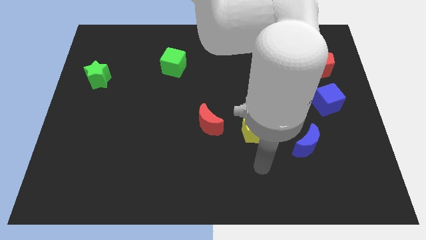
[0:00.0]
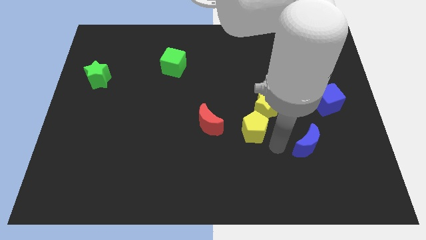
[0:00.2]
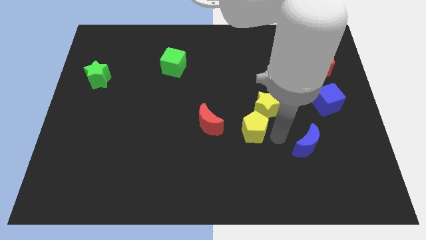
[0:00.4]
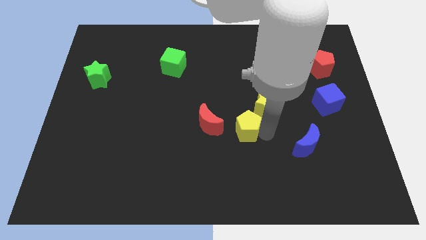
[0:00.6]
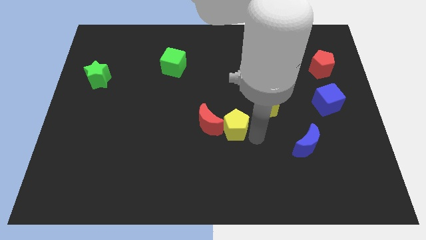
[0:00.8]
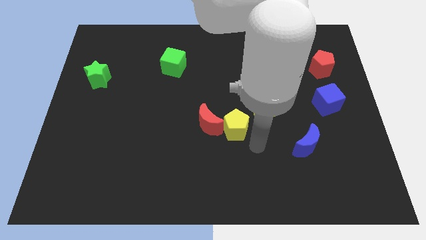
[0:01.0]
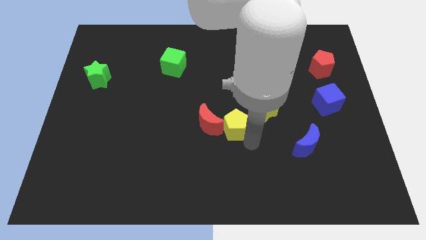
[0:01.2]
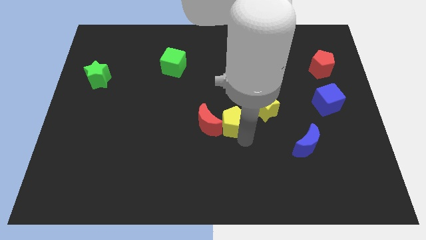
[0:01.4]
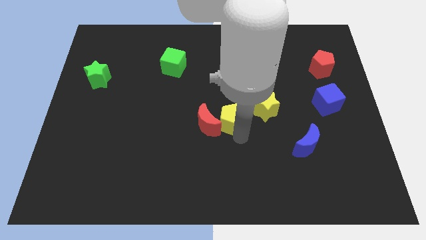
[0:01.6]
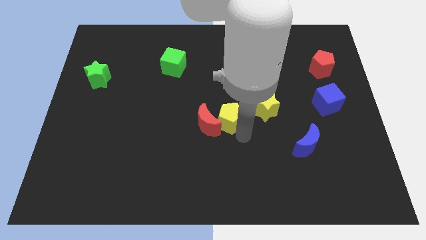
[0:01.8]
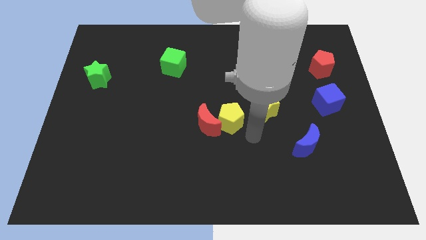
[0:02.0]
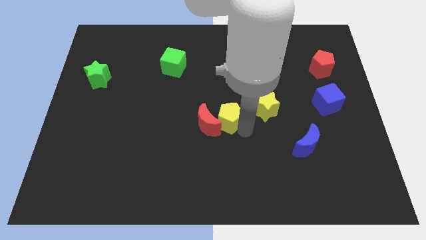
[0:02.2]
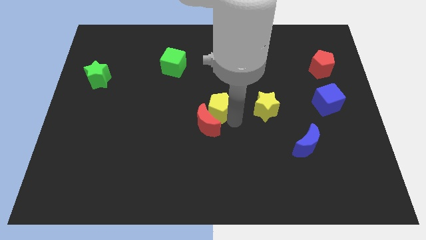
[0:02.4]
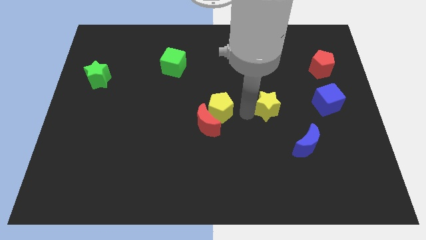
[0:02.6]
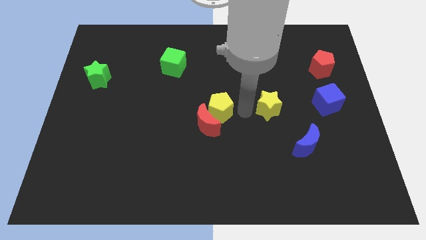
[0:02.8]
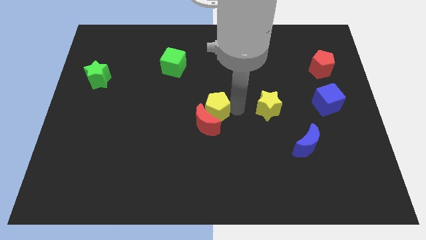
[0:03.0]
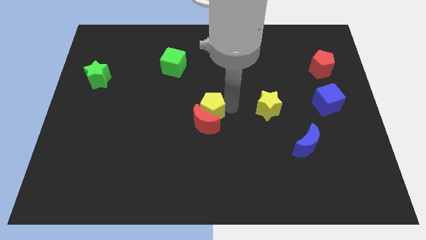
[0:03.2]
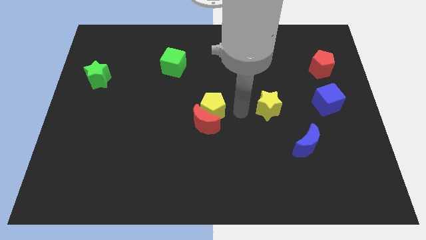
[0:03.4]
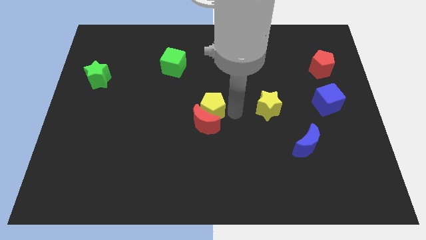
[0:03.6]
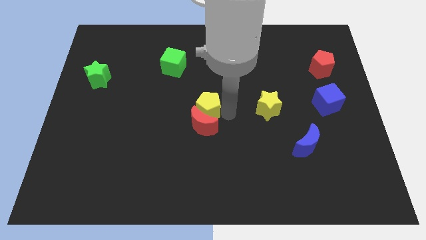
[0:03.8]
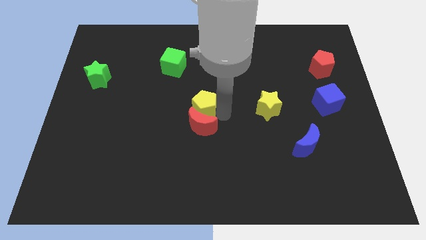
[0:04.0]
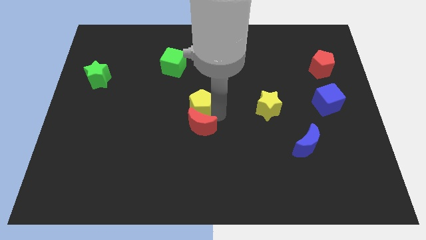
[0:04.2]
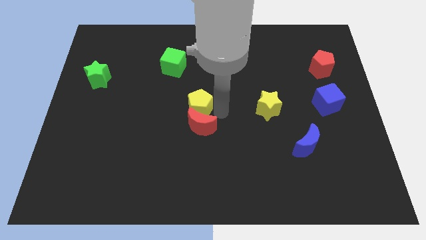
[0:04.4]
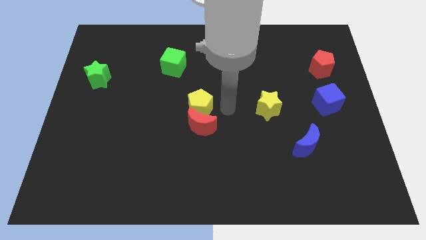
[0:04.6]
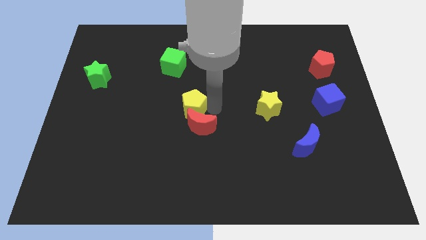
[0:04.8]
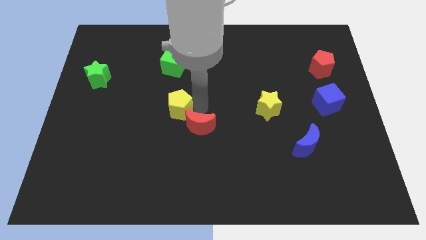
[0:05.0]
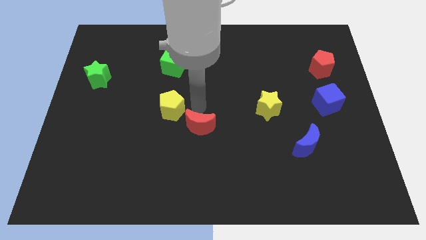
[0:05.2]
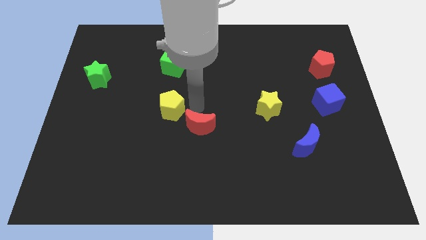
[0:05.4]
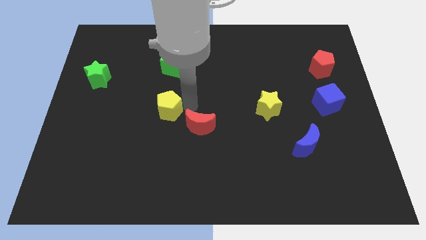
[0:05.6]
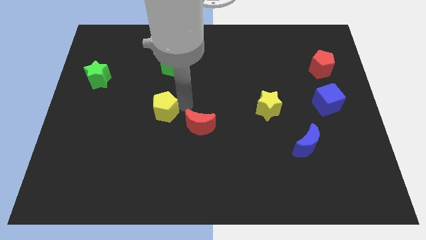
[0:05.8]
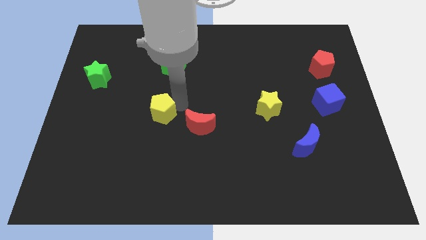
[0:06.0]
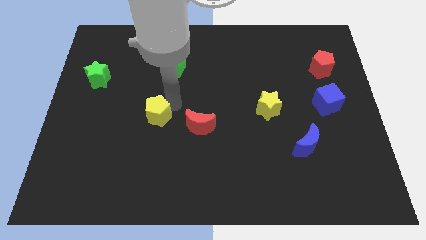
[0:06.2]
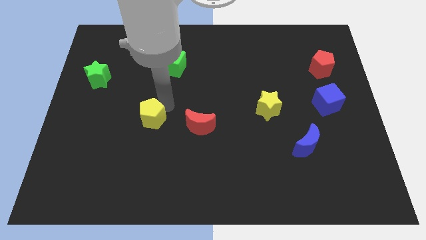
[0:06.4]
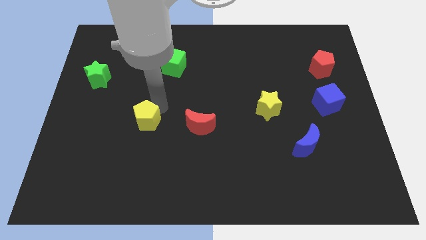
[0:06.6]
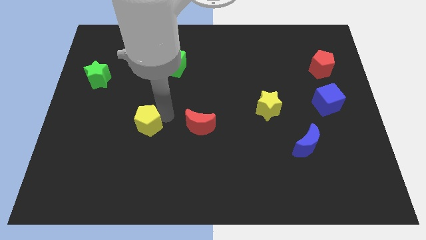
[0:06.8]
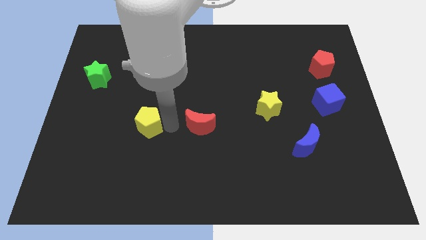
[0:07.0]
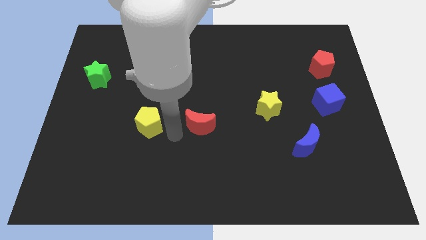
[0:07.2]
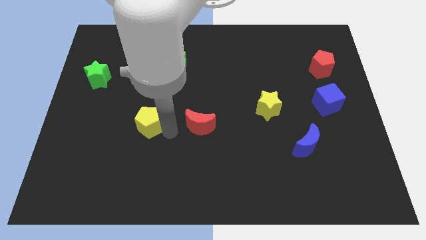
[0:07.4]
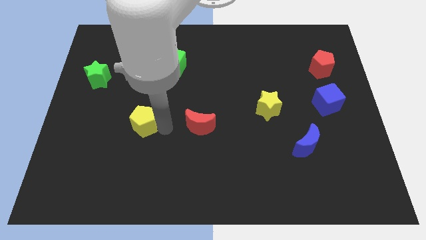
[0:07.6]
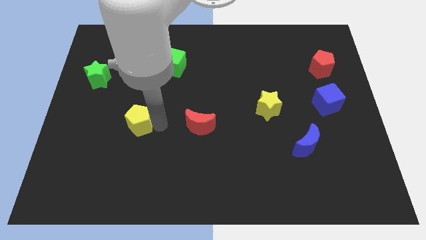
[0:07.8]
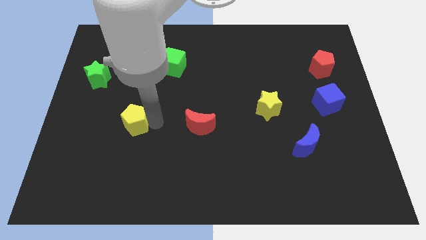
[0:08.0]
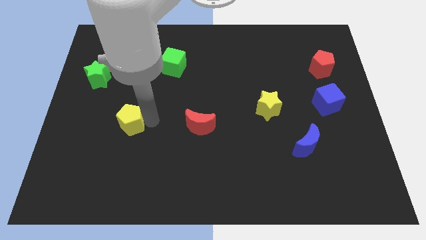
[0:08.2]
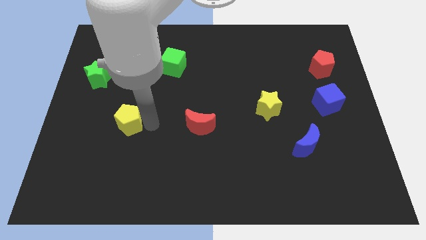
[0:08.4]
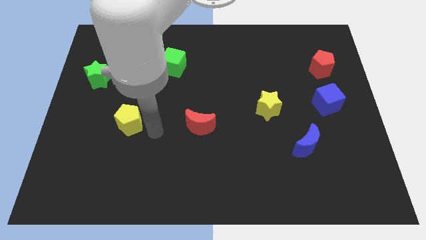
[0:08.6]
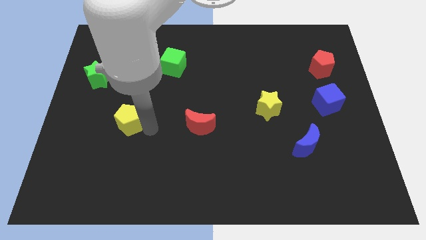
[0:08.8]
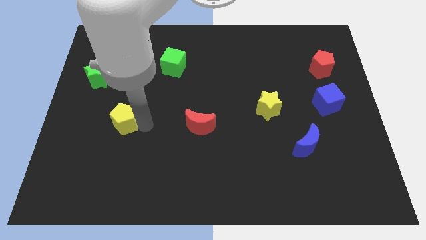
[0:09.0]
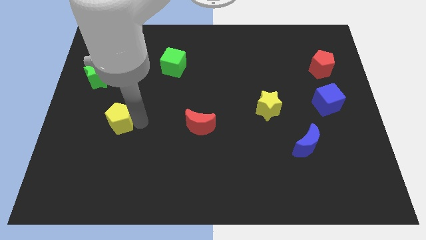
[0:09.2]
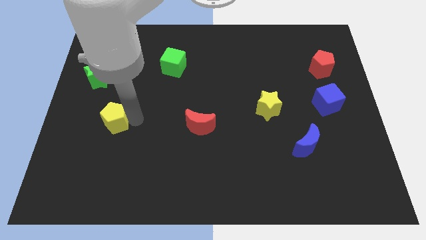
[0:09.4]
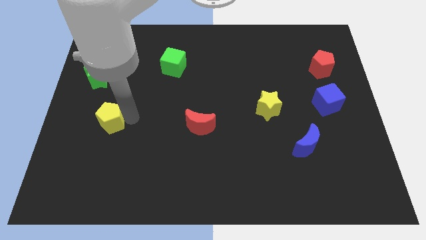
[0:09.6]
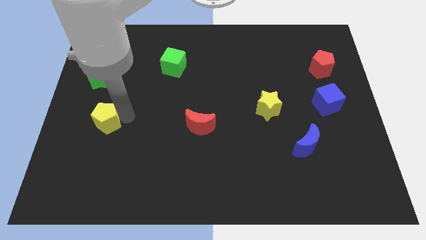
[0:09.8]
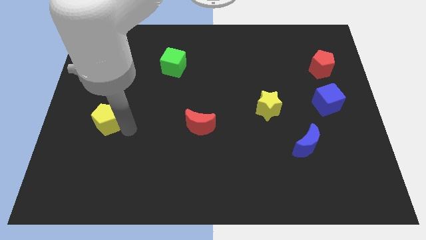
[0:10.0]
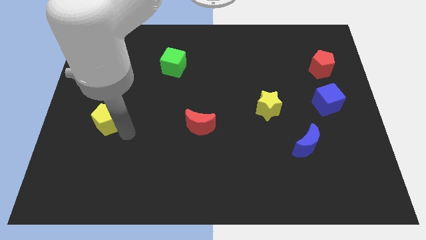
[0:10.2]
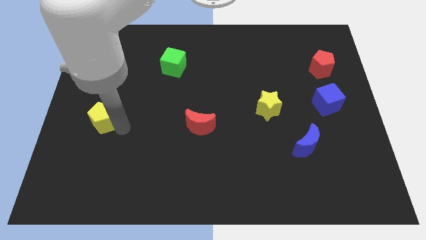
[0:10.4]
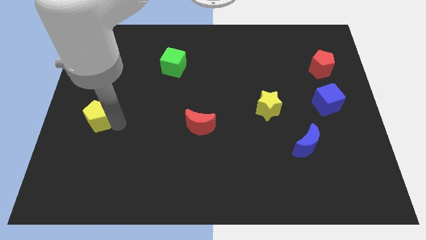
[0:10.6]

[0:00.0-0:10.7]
push the yellow pentagon to the center left

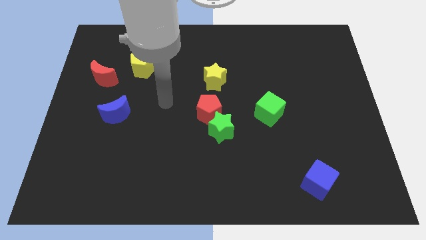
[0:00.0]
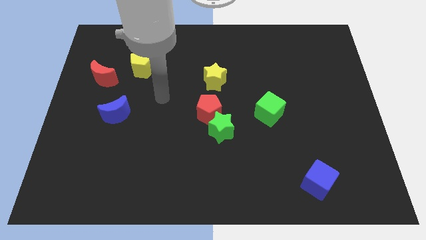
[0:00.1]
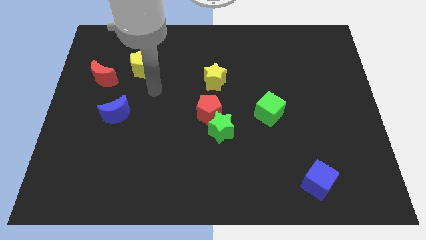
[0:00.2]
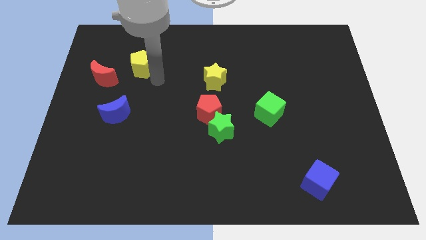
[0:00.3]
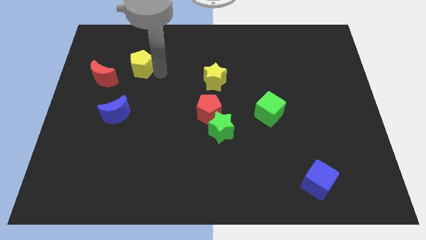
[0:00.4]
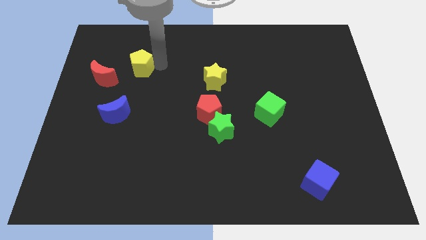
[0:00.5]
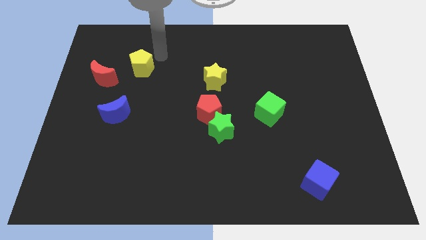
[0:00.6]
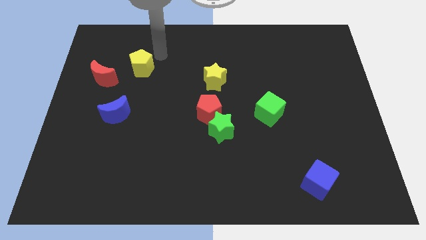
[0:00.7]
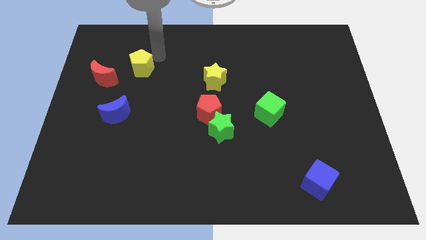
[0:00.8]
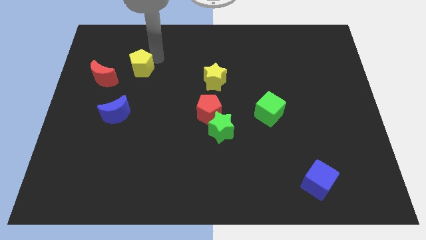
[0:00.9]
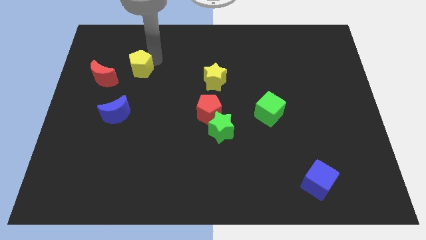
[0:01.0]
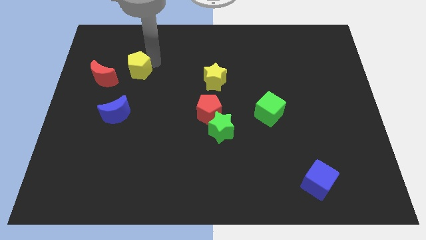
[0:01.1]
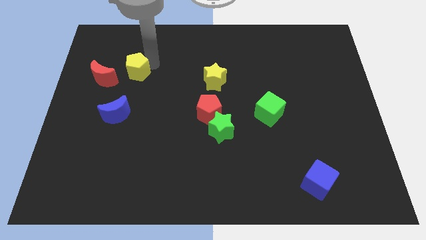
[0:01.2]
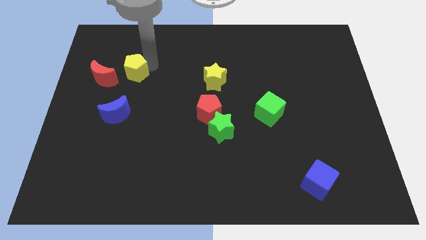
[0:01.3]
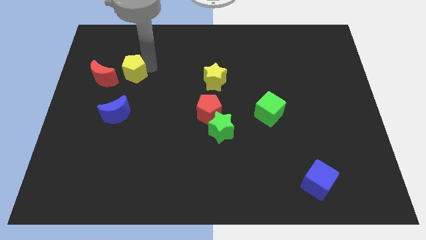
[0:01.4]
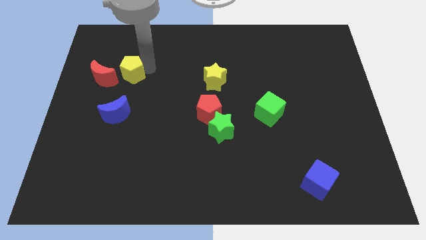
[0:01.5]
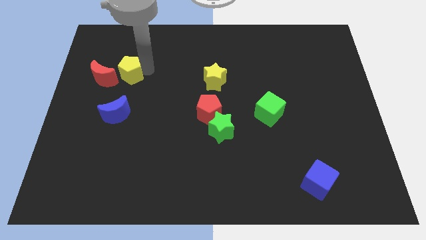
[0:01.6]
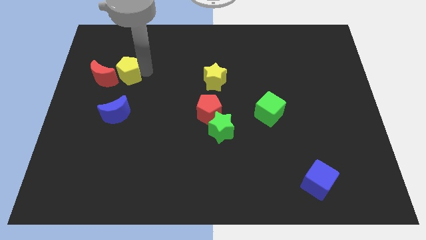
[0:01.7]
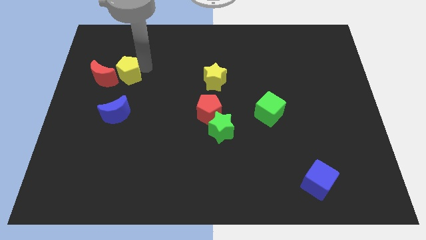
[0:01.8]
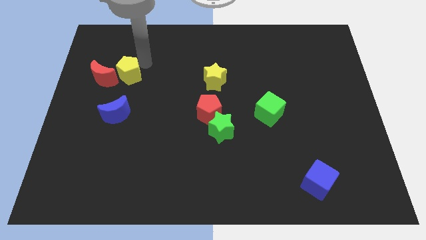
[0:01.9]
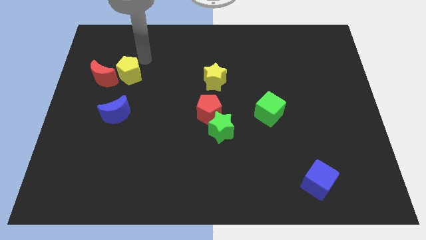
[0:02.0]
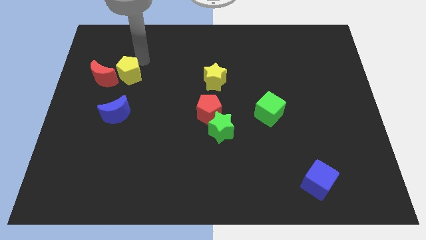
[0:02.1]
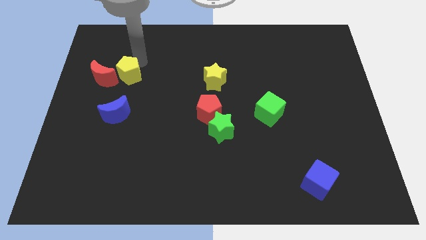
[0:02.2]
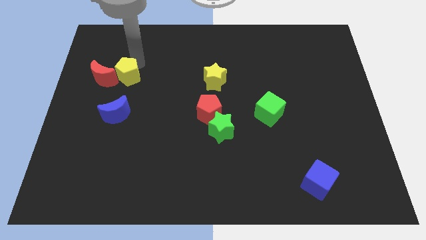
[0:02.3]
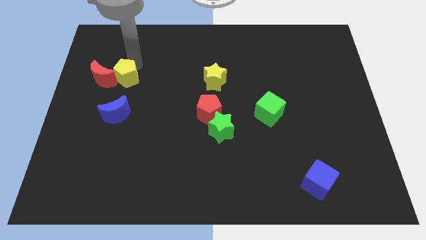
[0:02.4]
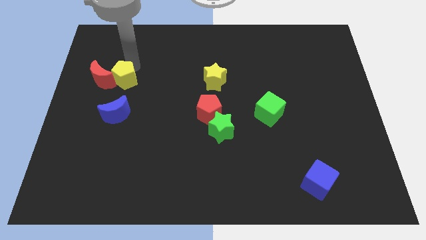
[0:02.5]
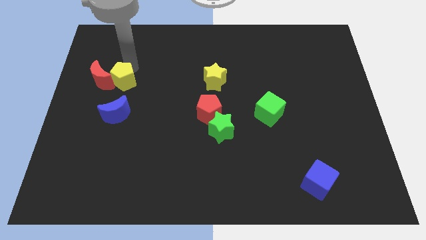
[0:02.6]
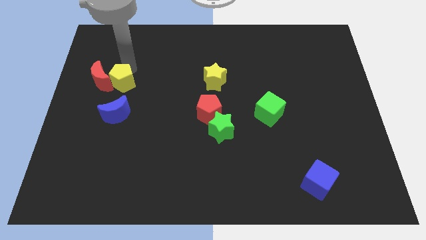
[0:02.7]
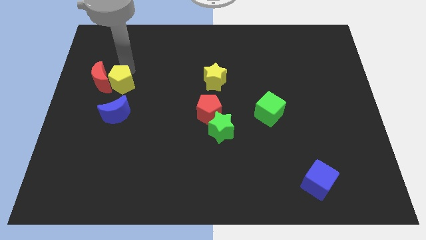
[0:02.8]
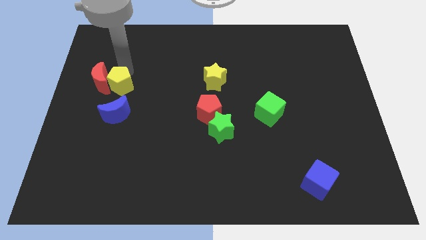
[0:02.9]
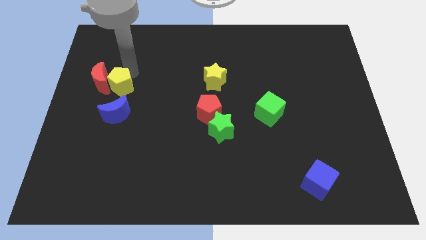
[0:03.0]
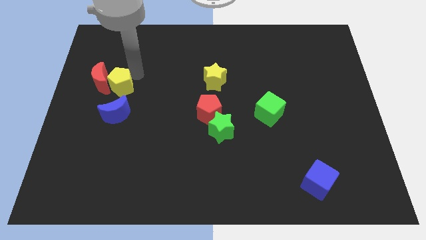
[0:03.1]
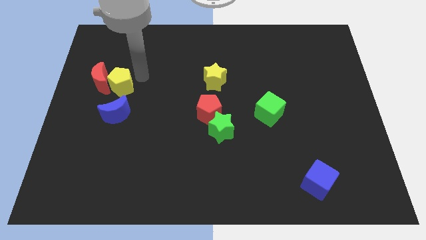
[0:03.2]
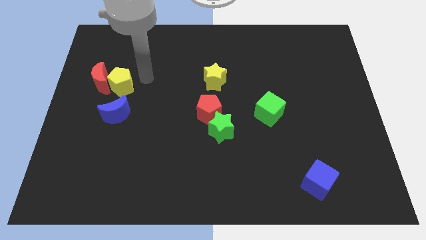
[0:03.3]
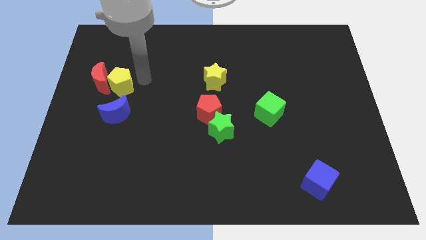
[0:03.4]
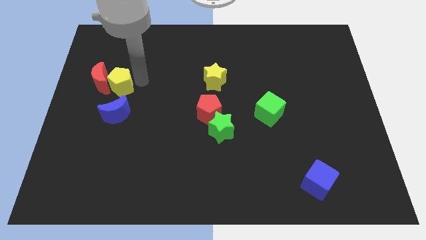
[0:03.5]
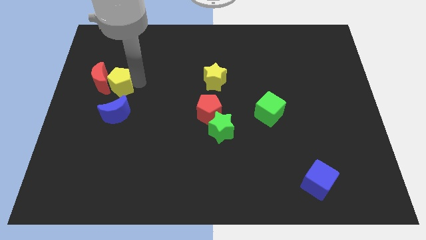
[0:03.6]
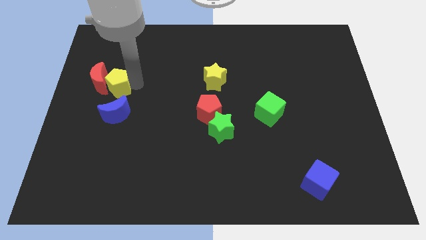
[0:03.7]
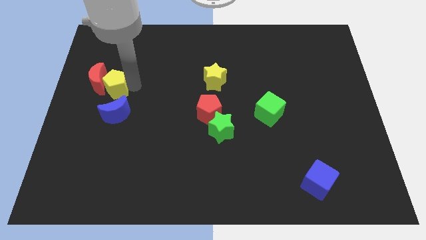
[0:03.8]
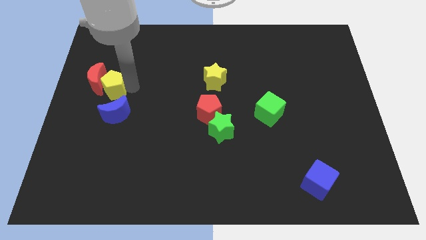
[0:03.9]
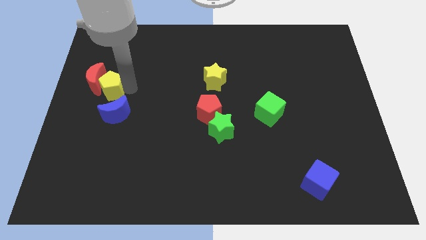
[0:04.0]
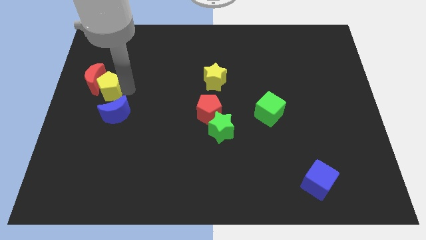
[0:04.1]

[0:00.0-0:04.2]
put the yellow pentagon to the center left
